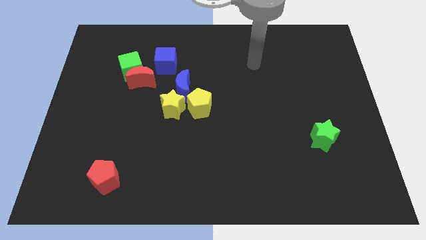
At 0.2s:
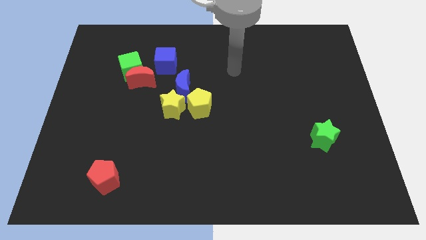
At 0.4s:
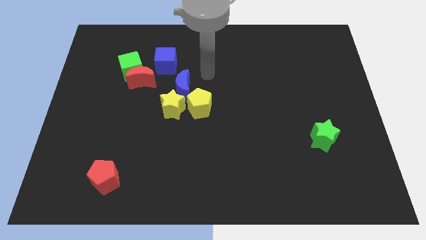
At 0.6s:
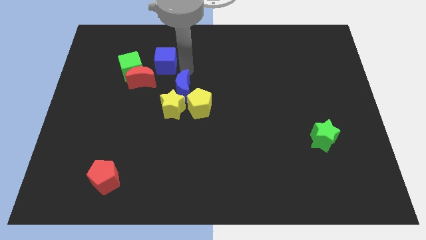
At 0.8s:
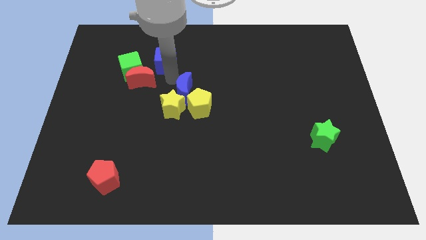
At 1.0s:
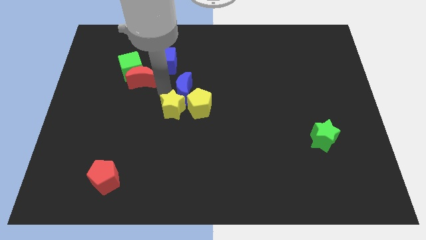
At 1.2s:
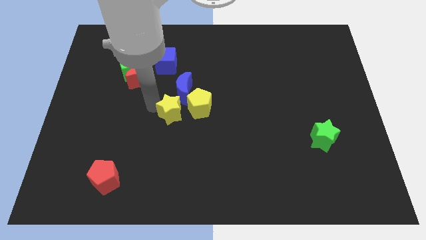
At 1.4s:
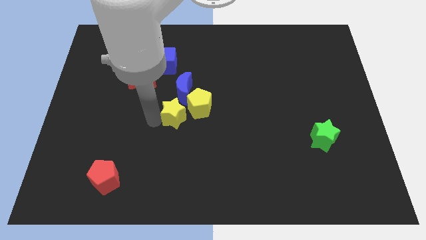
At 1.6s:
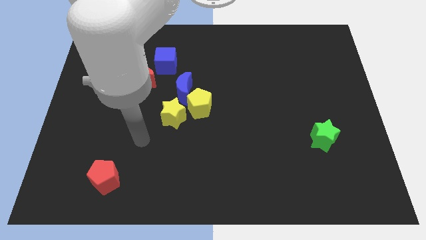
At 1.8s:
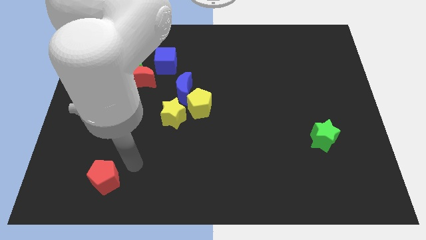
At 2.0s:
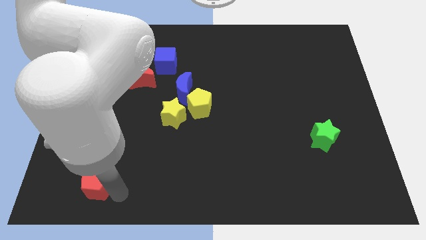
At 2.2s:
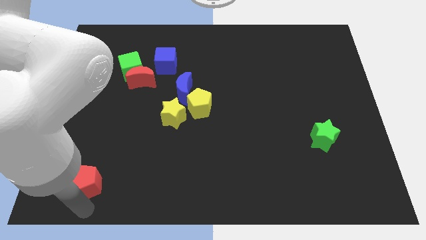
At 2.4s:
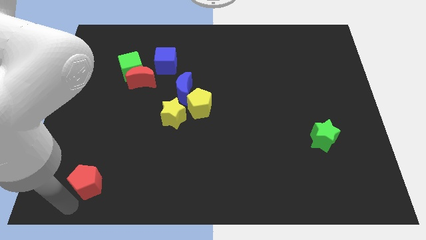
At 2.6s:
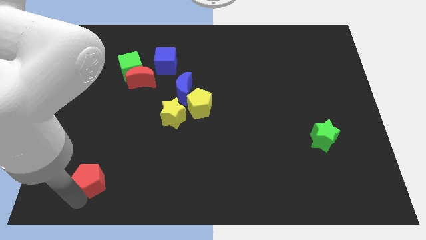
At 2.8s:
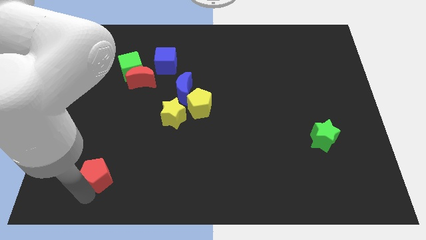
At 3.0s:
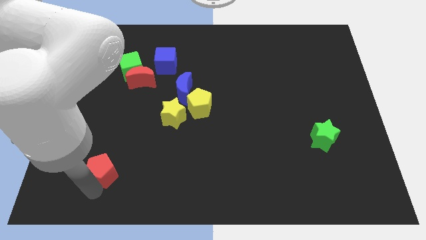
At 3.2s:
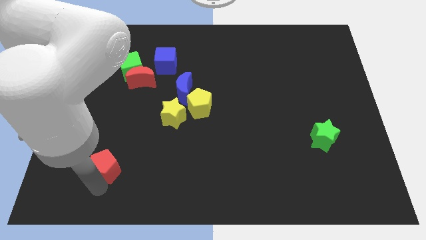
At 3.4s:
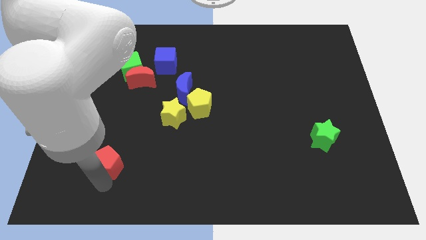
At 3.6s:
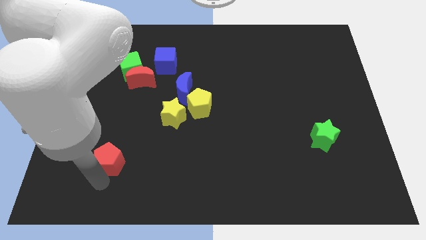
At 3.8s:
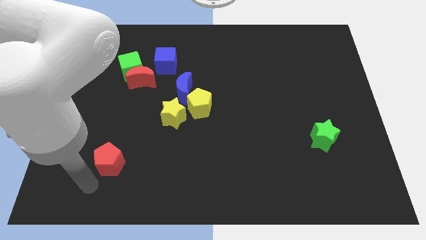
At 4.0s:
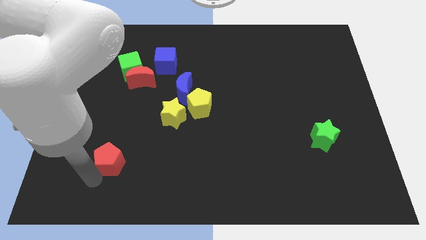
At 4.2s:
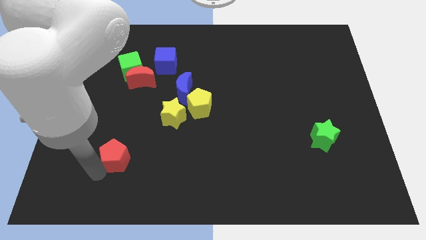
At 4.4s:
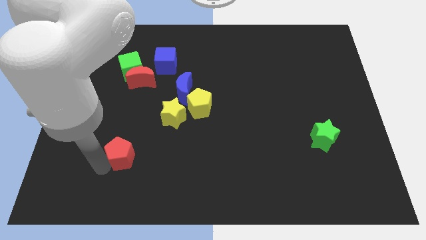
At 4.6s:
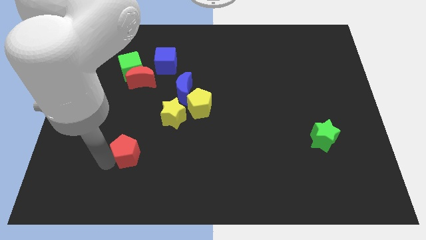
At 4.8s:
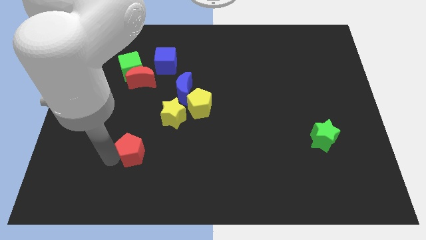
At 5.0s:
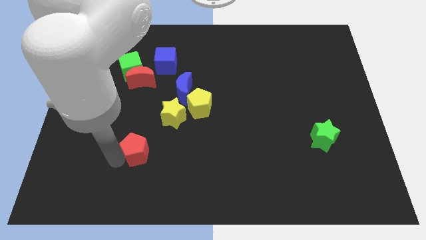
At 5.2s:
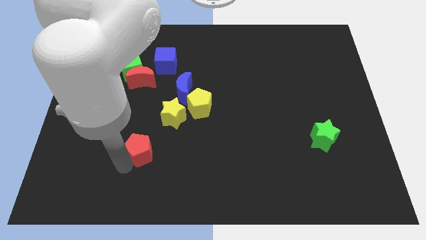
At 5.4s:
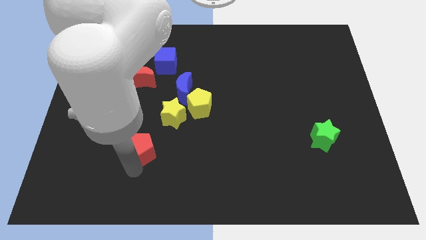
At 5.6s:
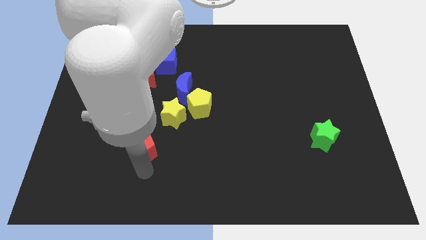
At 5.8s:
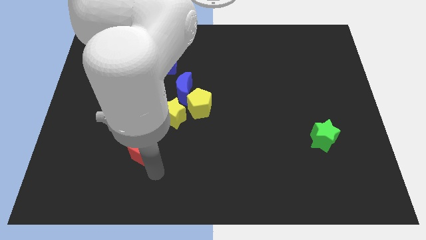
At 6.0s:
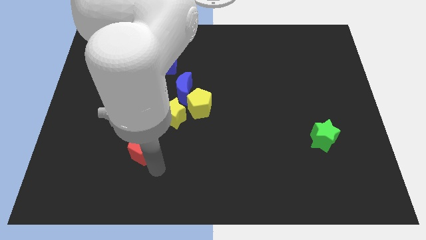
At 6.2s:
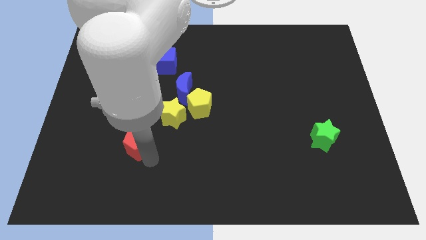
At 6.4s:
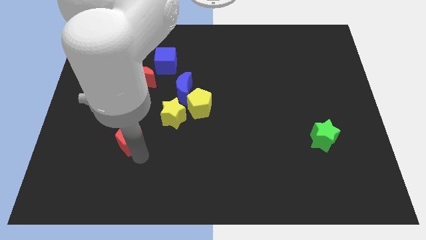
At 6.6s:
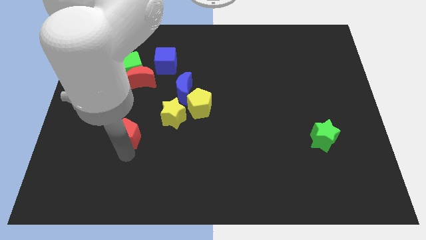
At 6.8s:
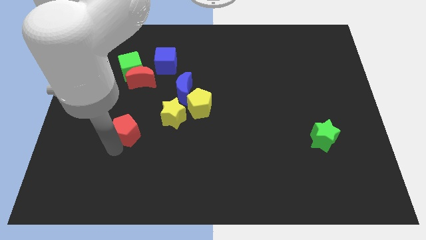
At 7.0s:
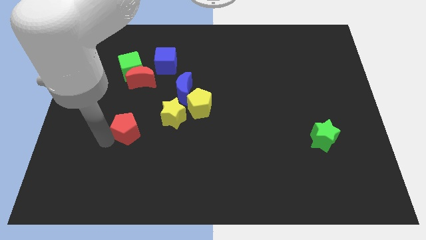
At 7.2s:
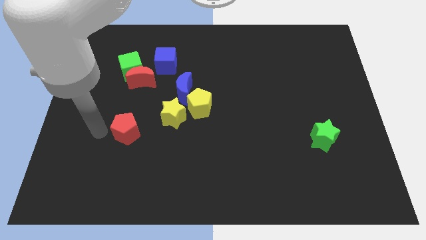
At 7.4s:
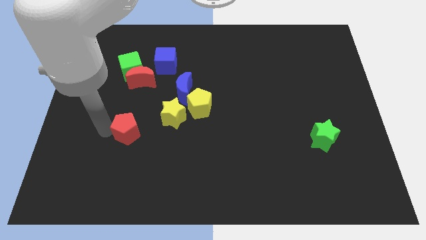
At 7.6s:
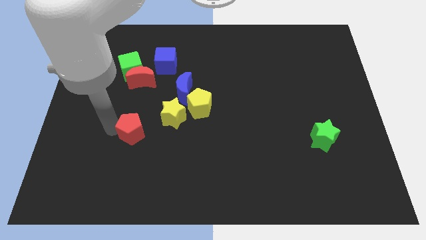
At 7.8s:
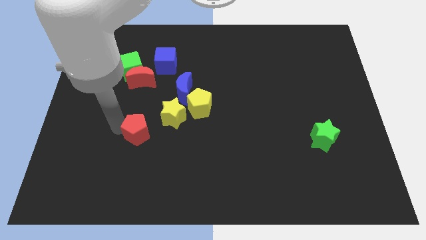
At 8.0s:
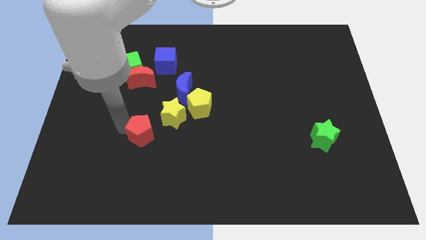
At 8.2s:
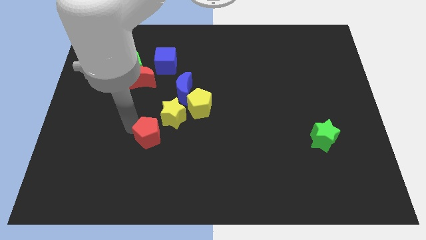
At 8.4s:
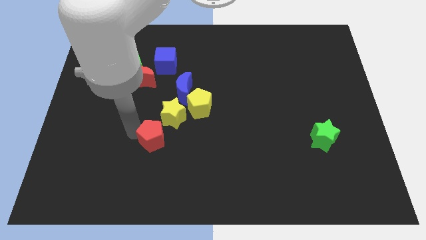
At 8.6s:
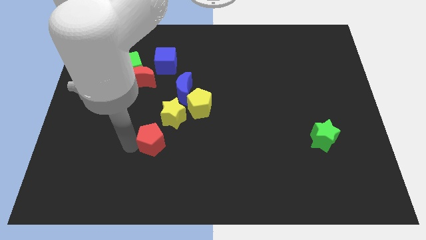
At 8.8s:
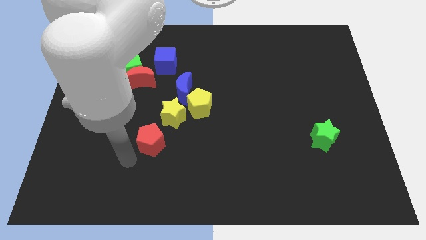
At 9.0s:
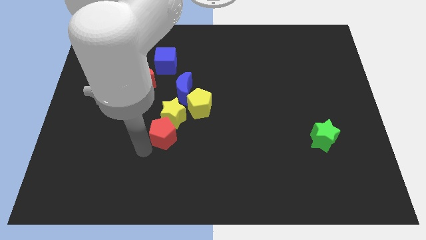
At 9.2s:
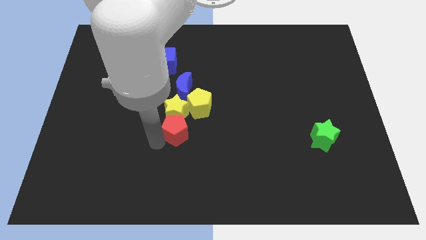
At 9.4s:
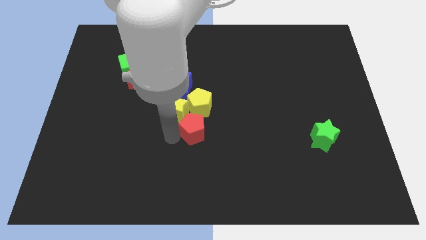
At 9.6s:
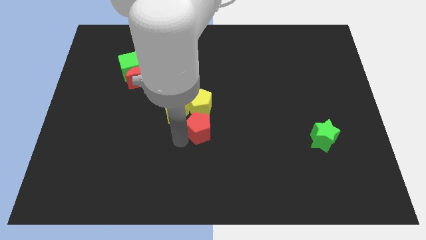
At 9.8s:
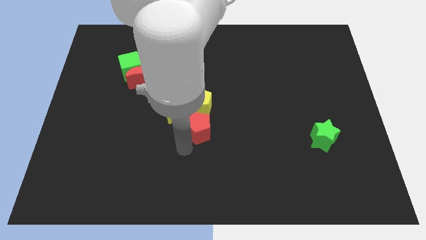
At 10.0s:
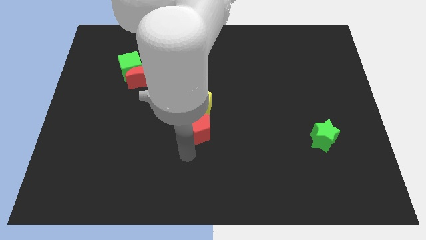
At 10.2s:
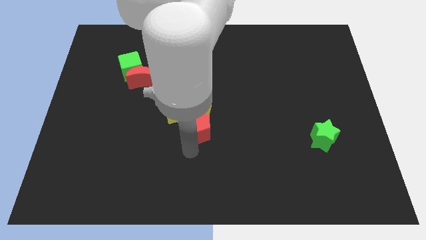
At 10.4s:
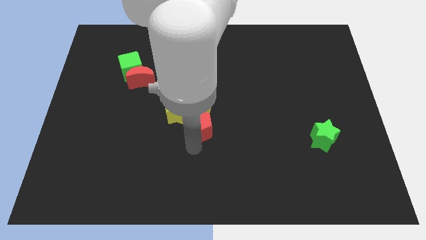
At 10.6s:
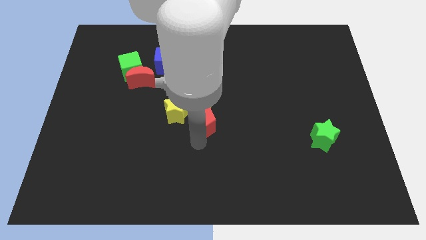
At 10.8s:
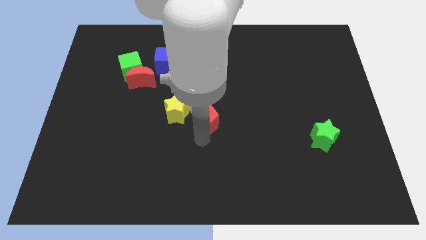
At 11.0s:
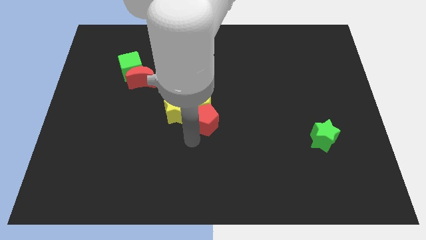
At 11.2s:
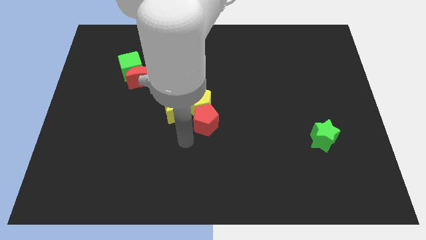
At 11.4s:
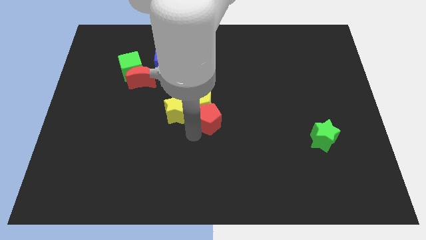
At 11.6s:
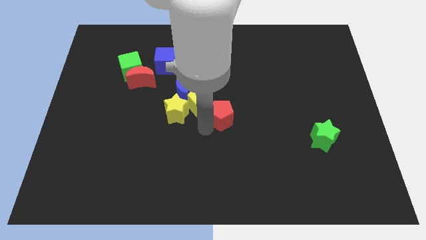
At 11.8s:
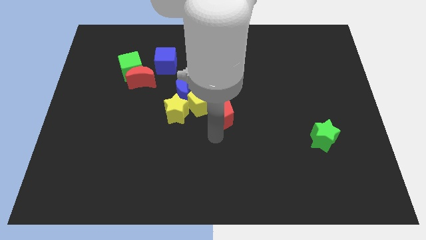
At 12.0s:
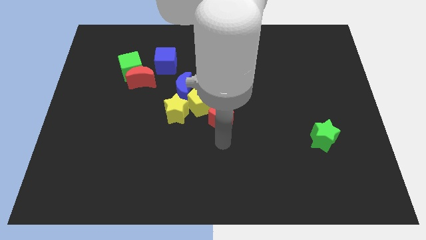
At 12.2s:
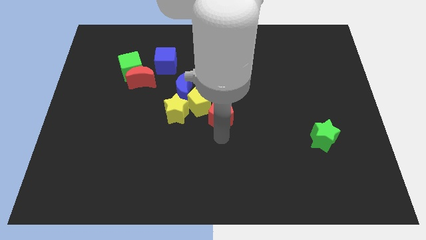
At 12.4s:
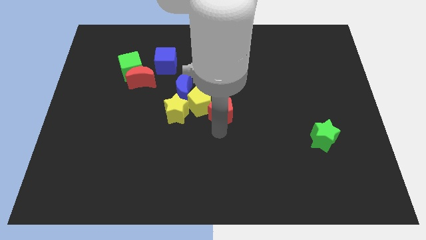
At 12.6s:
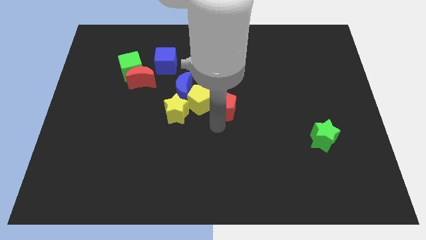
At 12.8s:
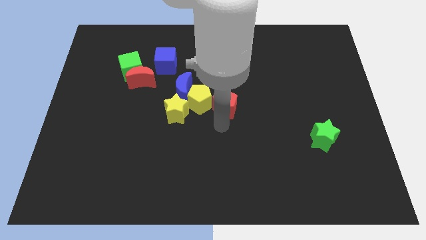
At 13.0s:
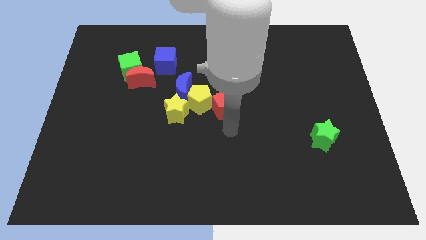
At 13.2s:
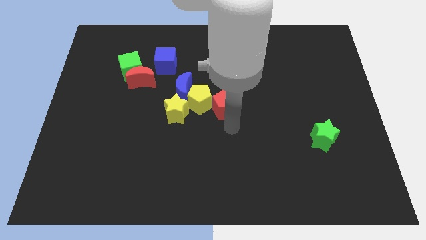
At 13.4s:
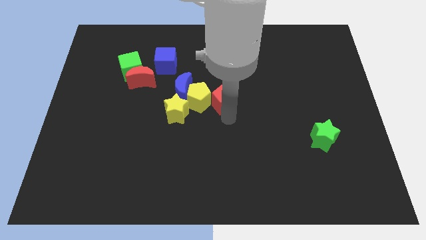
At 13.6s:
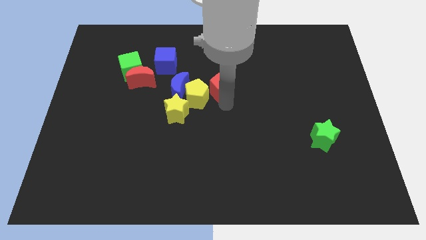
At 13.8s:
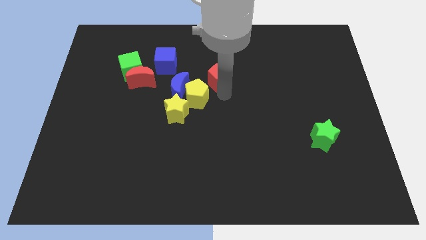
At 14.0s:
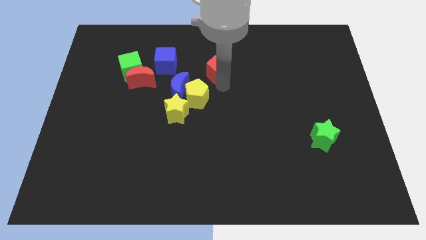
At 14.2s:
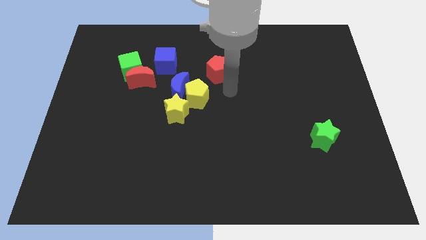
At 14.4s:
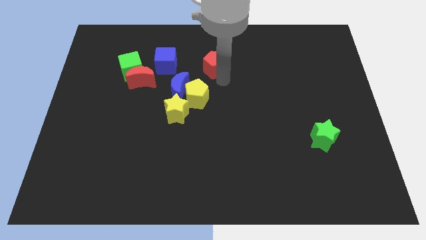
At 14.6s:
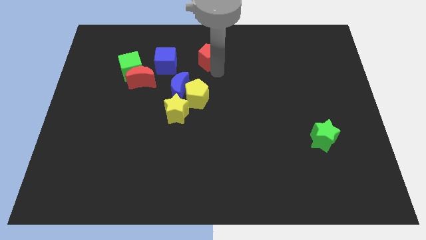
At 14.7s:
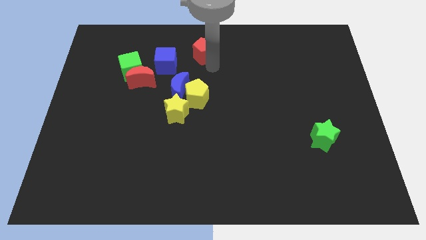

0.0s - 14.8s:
put the red pentagon to the top side
